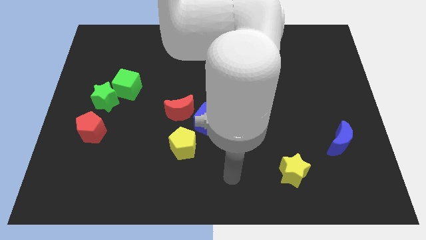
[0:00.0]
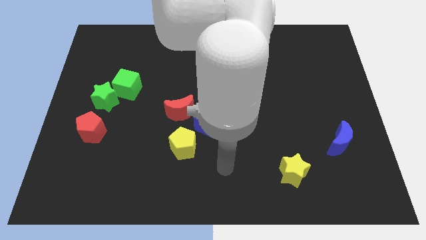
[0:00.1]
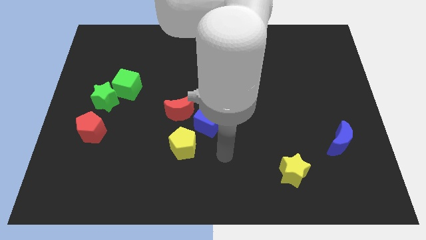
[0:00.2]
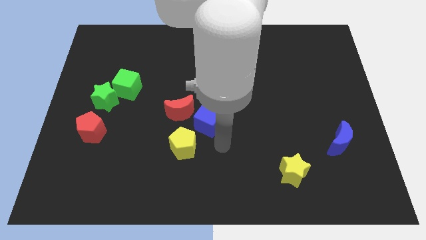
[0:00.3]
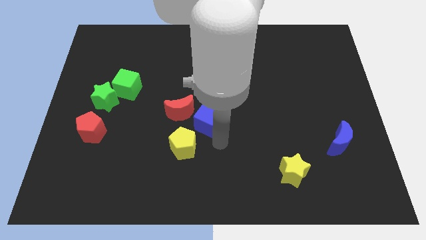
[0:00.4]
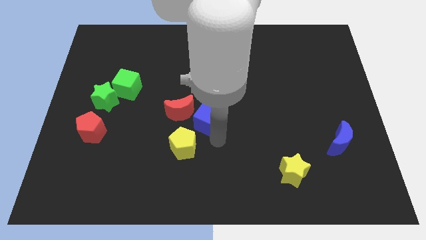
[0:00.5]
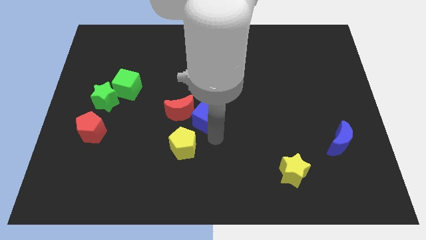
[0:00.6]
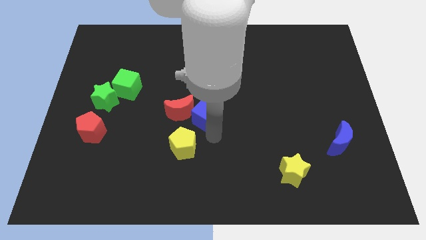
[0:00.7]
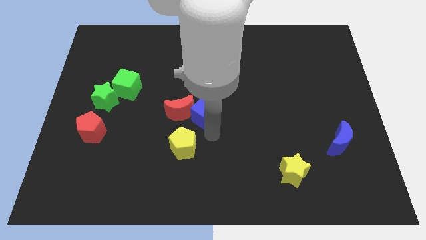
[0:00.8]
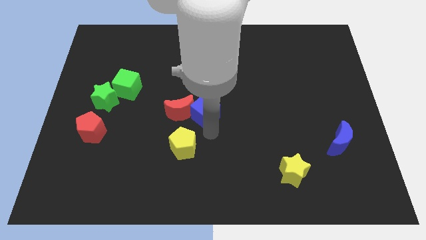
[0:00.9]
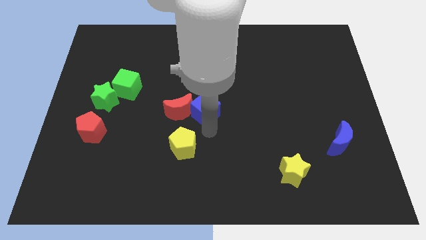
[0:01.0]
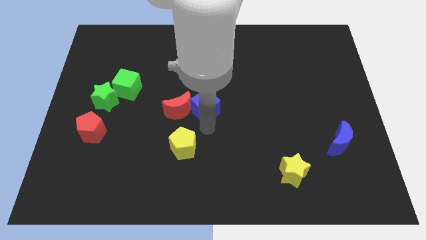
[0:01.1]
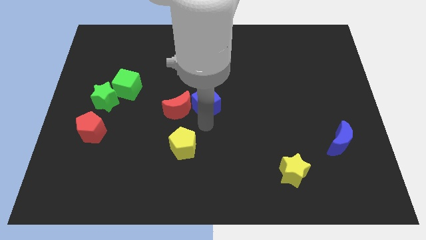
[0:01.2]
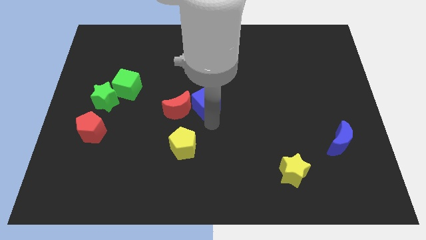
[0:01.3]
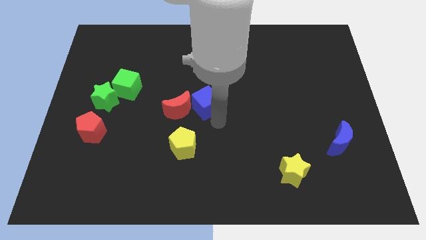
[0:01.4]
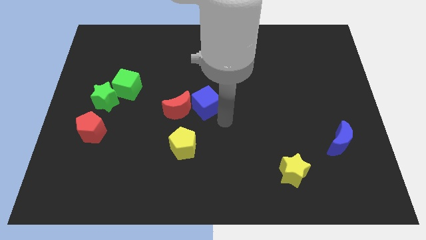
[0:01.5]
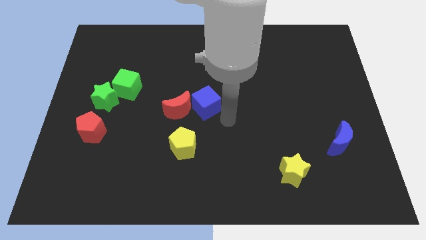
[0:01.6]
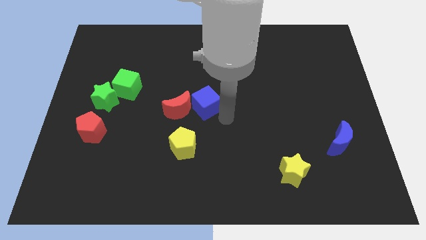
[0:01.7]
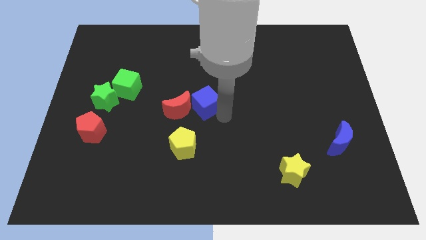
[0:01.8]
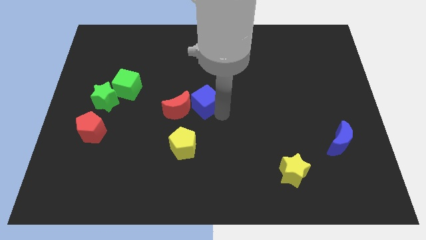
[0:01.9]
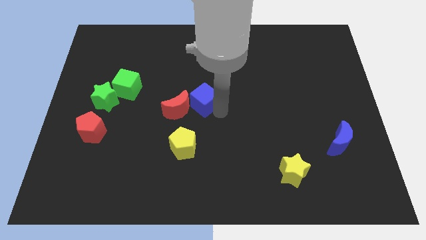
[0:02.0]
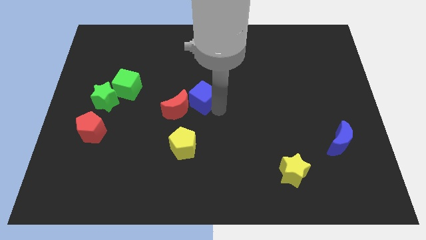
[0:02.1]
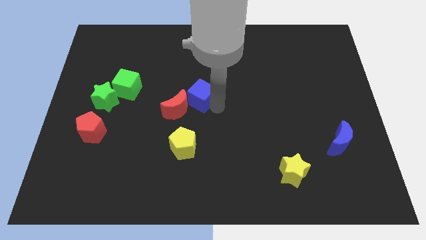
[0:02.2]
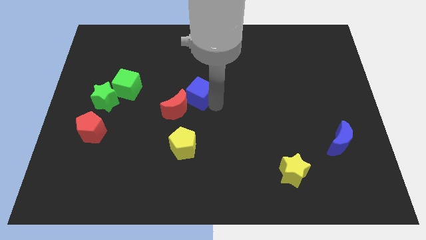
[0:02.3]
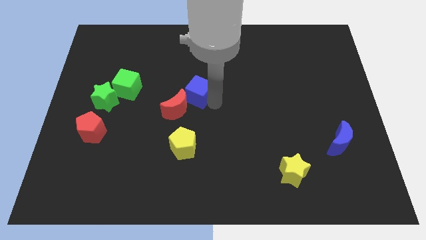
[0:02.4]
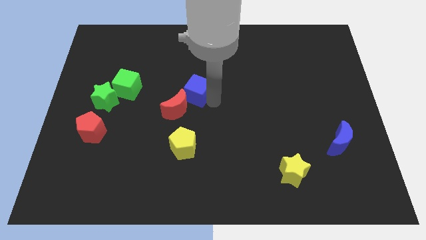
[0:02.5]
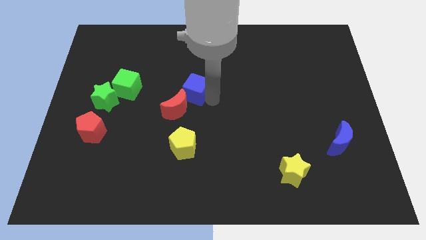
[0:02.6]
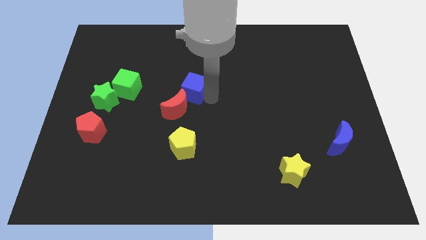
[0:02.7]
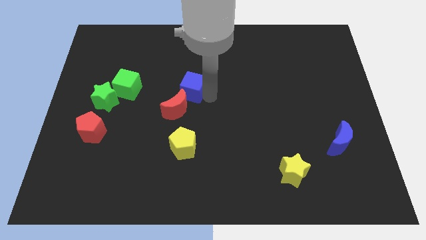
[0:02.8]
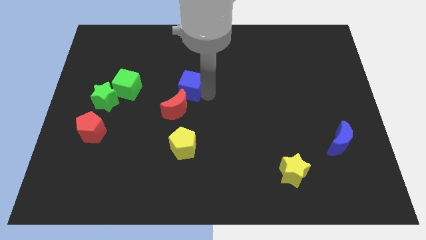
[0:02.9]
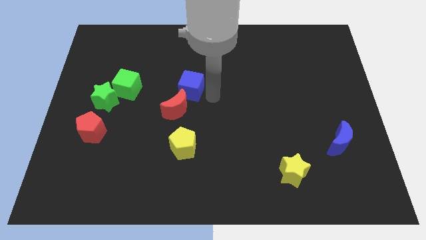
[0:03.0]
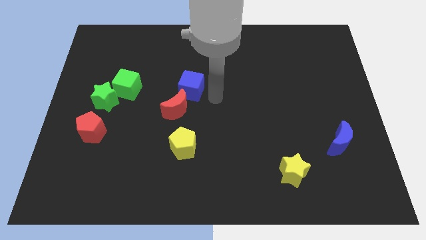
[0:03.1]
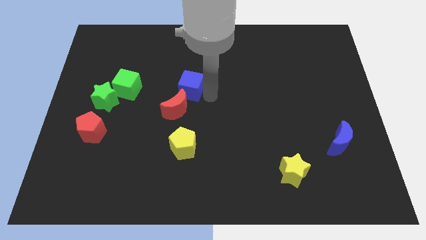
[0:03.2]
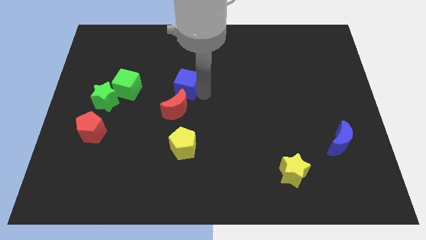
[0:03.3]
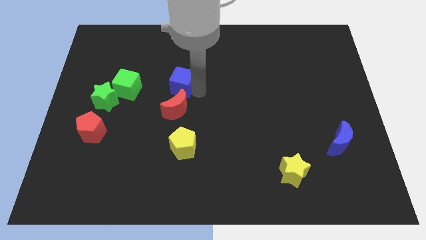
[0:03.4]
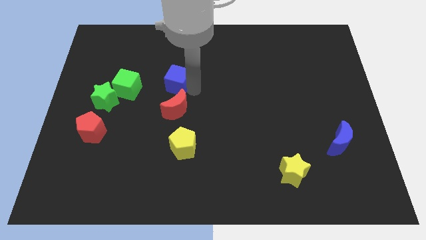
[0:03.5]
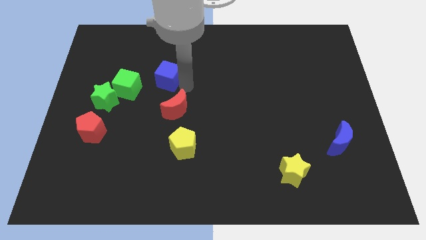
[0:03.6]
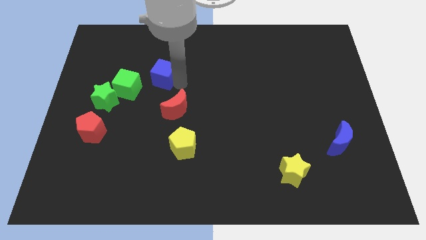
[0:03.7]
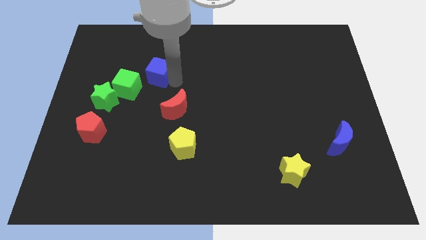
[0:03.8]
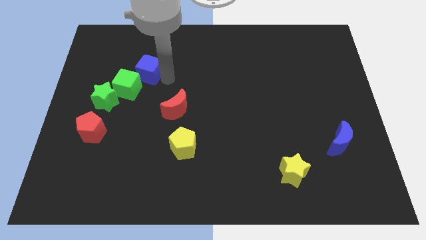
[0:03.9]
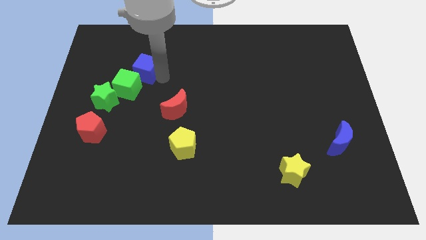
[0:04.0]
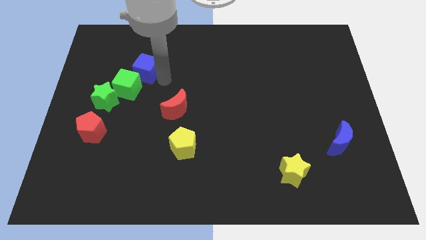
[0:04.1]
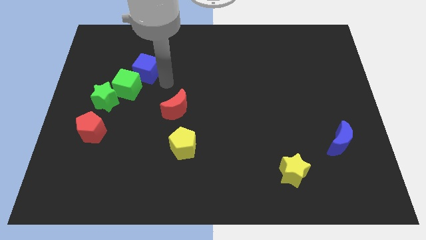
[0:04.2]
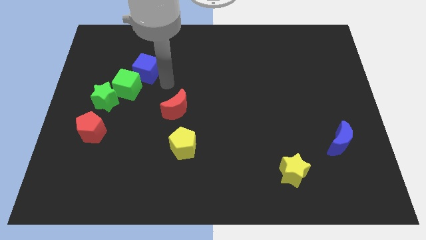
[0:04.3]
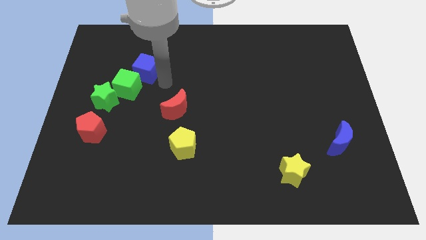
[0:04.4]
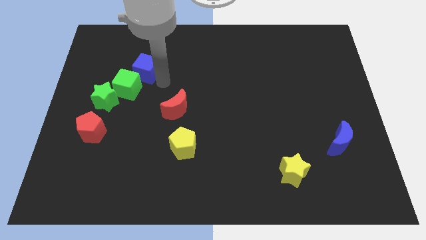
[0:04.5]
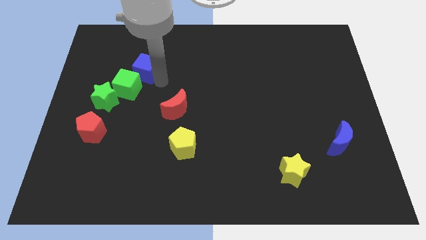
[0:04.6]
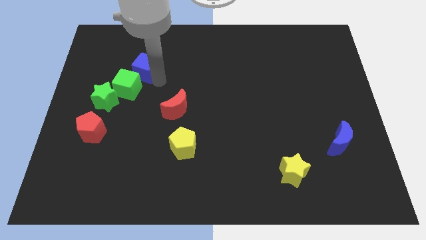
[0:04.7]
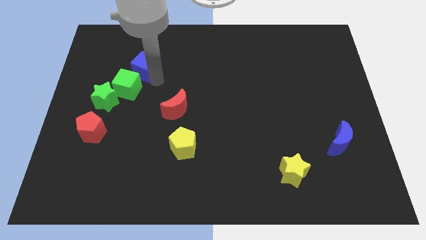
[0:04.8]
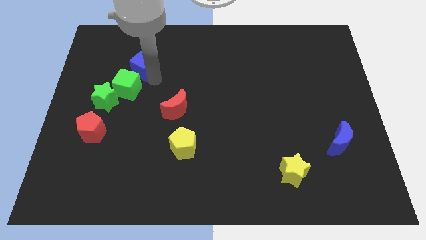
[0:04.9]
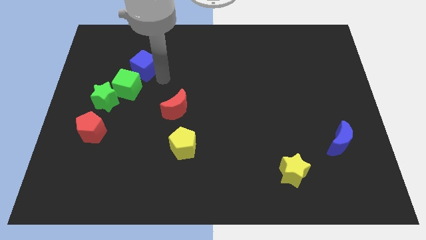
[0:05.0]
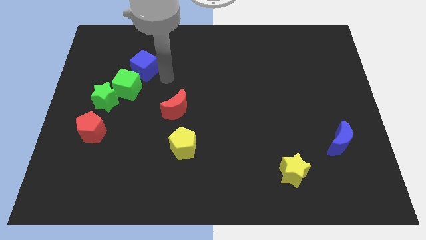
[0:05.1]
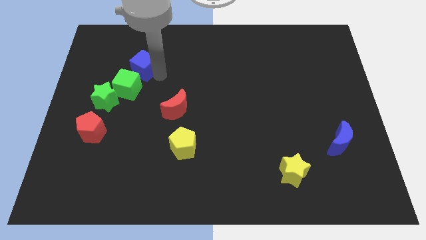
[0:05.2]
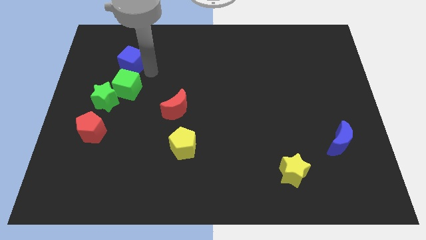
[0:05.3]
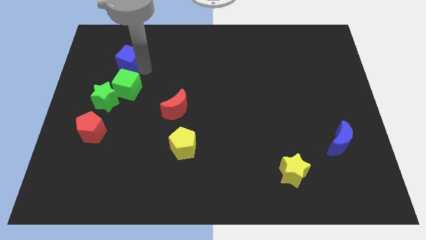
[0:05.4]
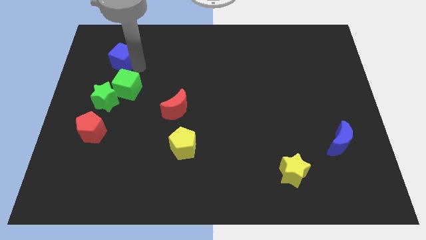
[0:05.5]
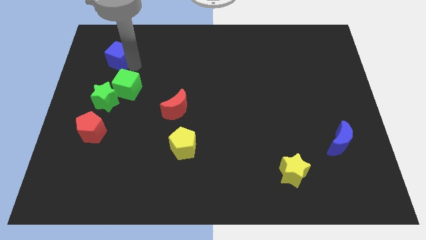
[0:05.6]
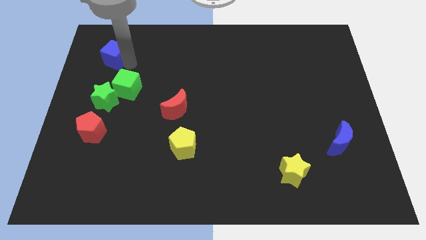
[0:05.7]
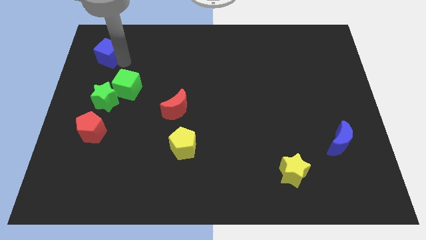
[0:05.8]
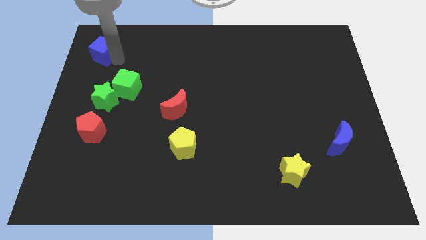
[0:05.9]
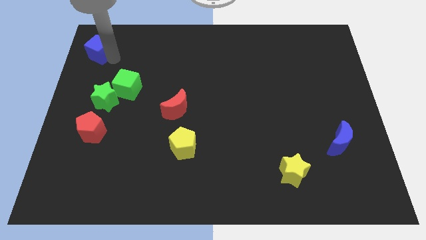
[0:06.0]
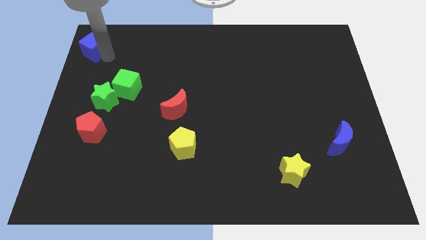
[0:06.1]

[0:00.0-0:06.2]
slide the blue cube to the top left

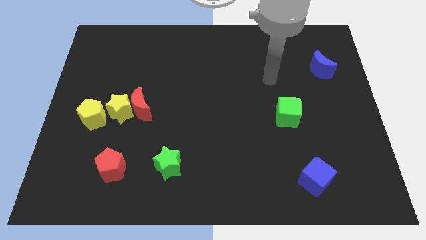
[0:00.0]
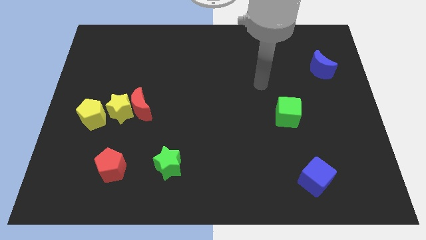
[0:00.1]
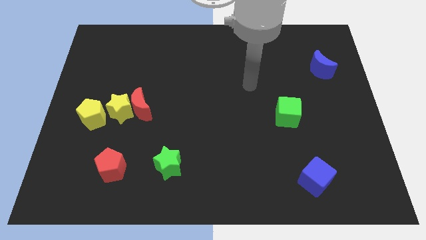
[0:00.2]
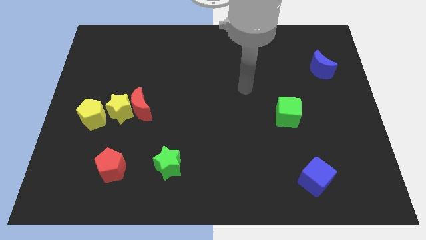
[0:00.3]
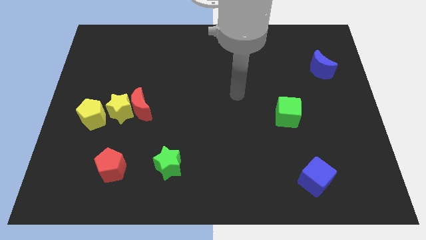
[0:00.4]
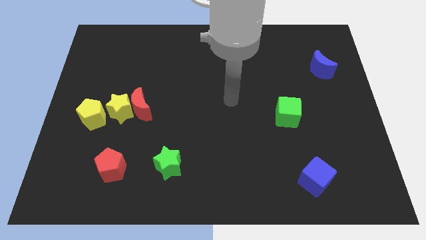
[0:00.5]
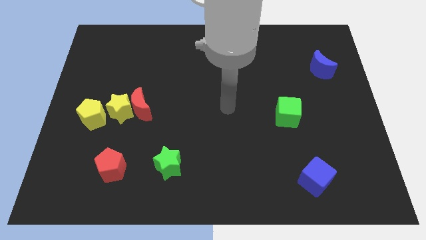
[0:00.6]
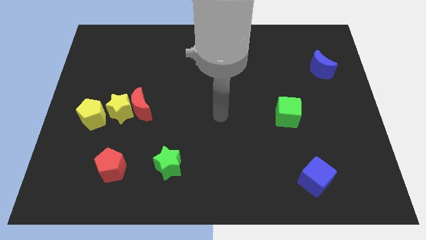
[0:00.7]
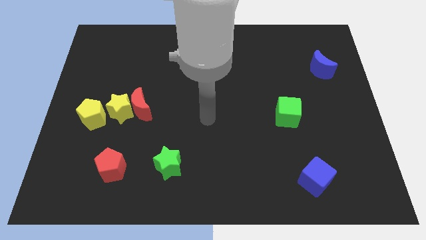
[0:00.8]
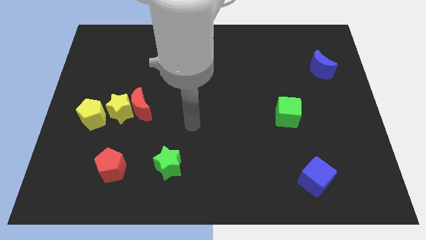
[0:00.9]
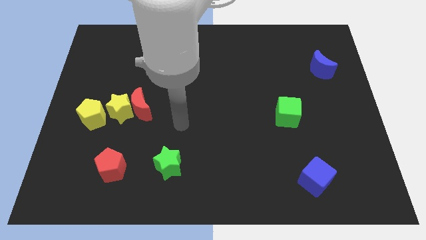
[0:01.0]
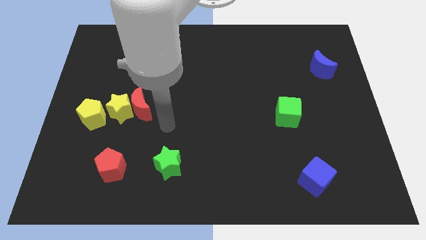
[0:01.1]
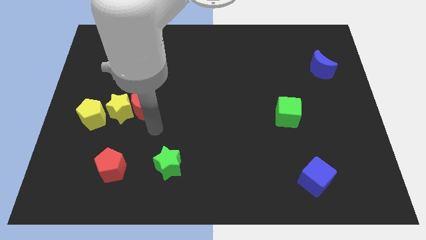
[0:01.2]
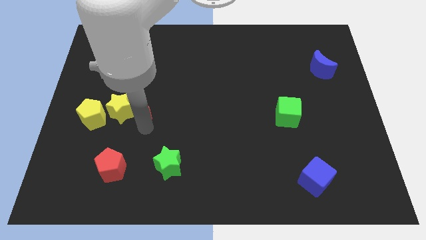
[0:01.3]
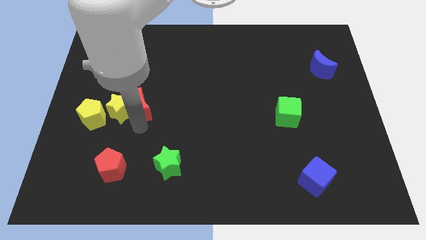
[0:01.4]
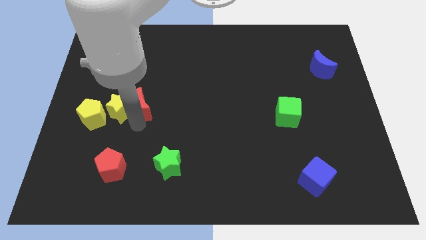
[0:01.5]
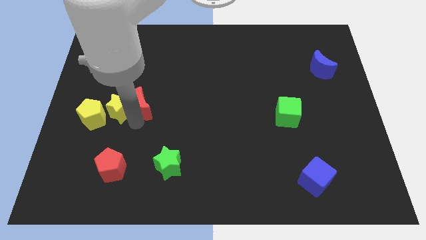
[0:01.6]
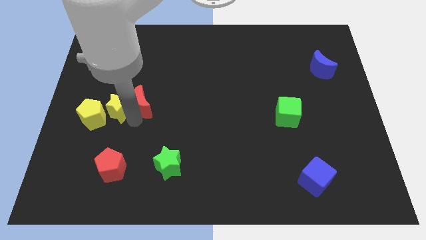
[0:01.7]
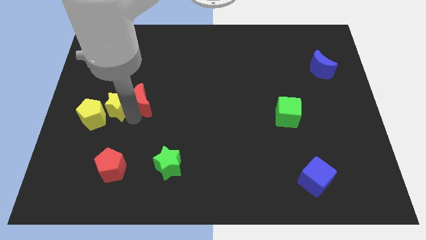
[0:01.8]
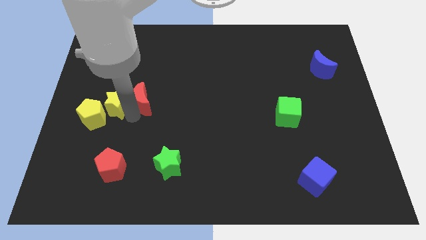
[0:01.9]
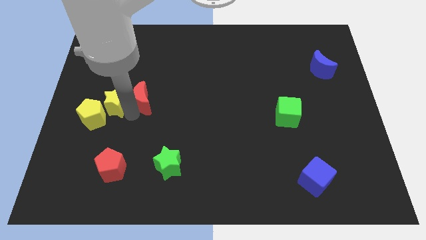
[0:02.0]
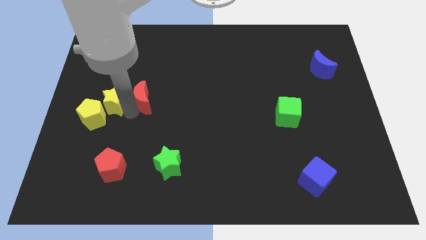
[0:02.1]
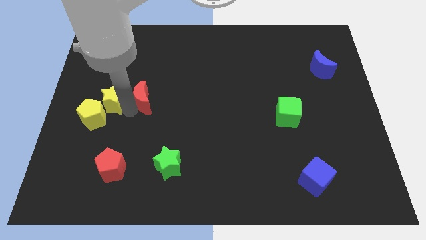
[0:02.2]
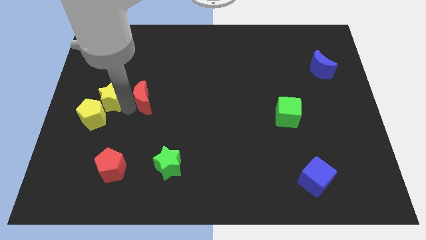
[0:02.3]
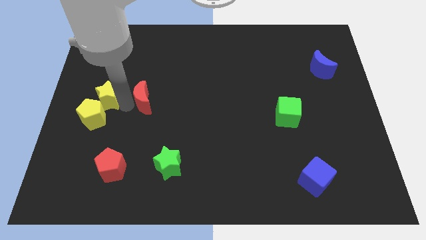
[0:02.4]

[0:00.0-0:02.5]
push the yellow star to the center left
